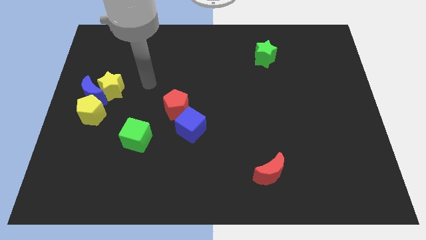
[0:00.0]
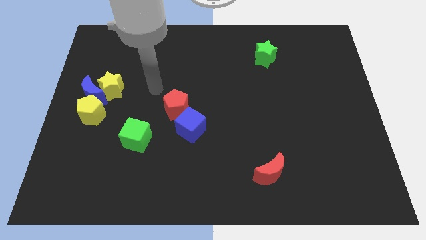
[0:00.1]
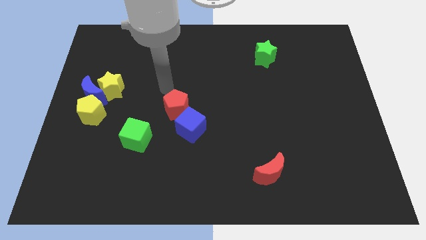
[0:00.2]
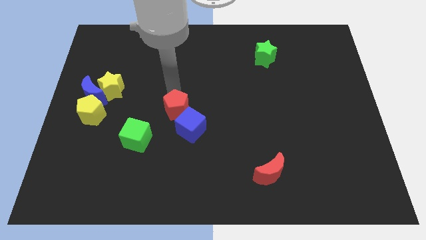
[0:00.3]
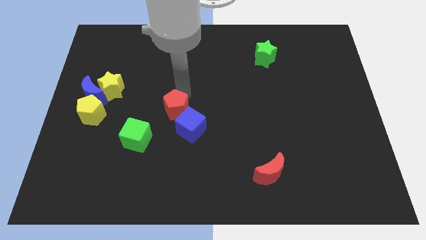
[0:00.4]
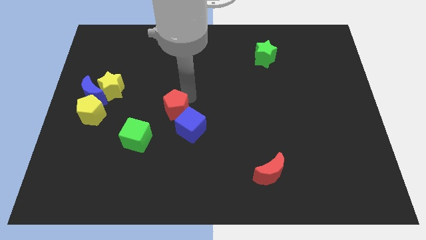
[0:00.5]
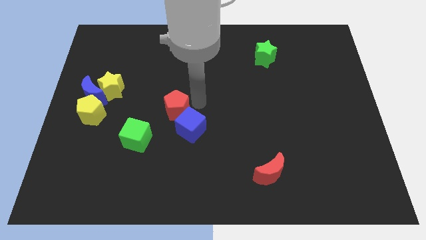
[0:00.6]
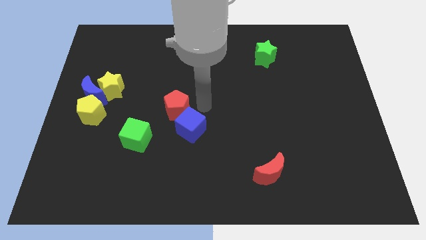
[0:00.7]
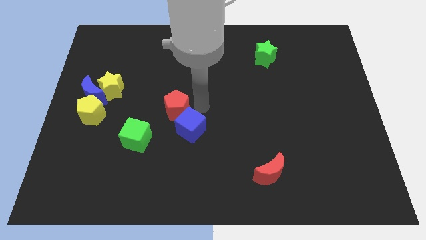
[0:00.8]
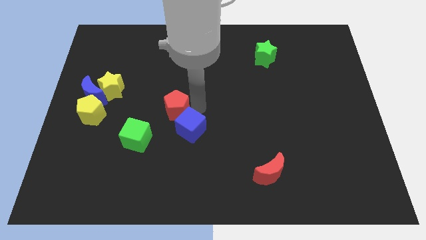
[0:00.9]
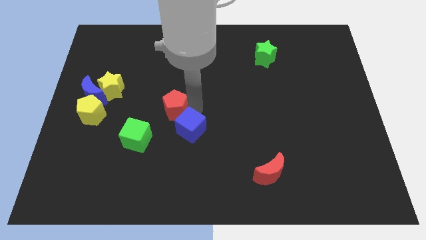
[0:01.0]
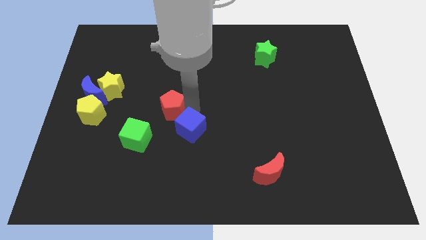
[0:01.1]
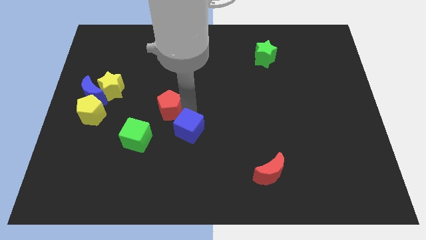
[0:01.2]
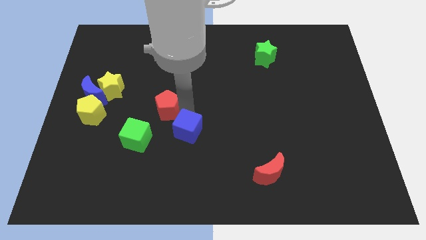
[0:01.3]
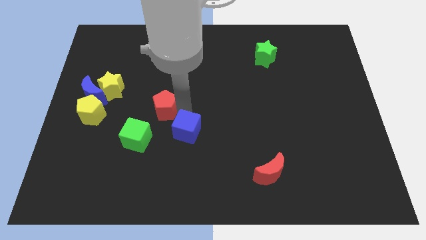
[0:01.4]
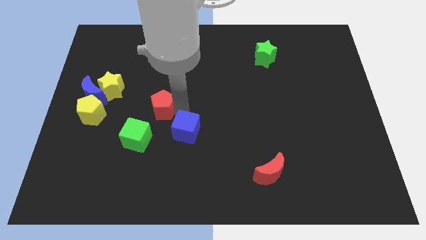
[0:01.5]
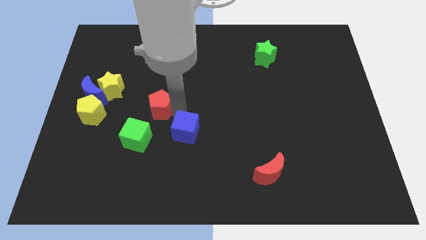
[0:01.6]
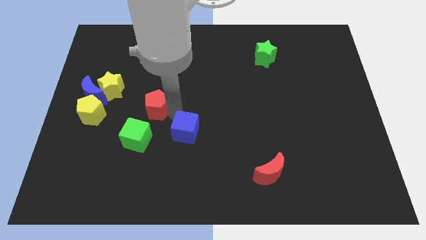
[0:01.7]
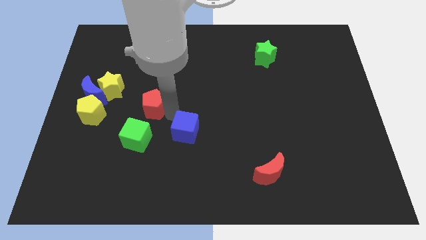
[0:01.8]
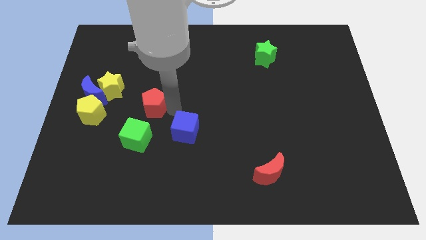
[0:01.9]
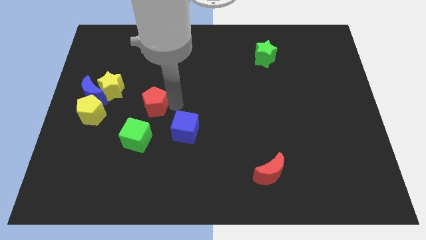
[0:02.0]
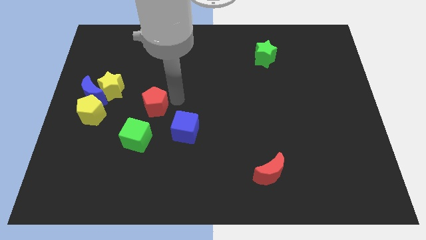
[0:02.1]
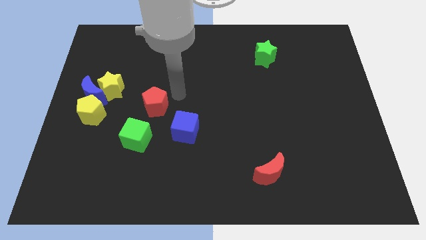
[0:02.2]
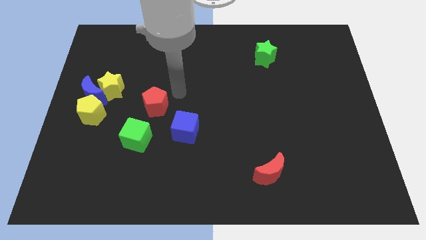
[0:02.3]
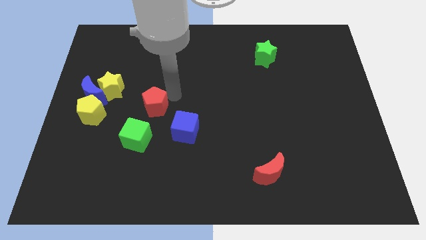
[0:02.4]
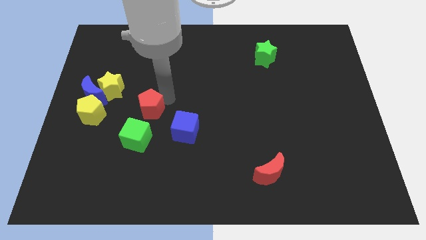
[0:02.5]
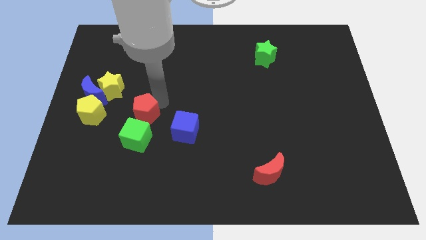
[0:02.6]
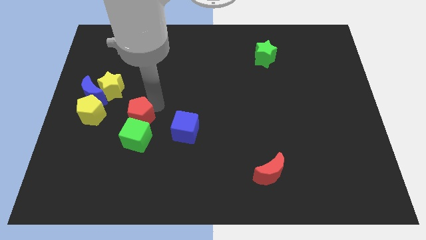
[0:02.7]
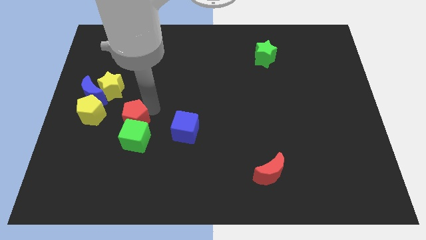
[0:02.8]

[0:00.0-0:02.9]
slightly slide the red pentagon down and to the left

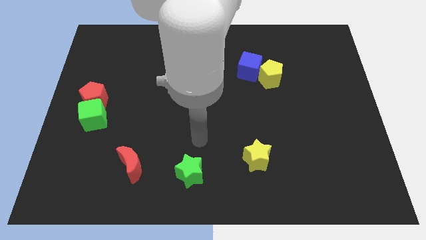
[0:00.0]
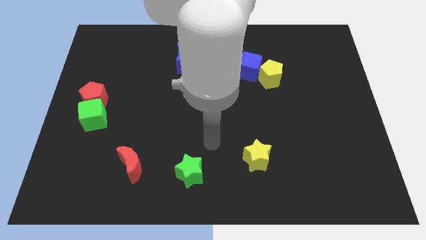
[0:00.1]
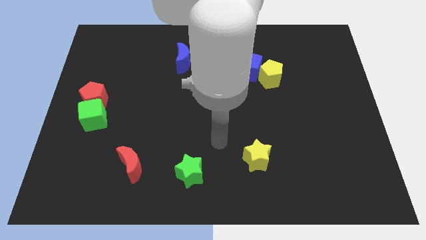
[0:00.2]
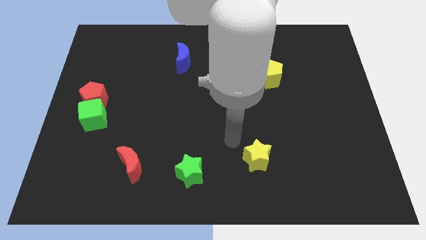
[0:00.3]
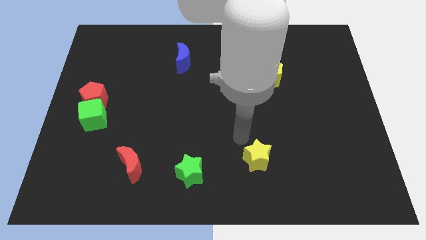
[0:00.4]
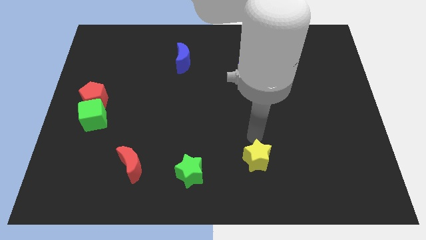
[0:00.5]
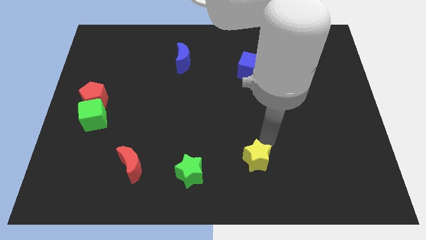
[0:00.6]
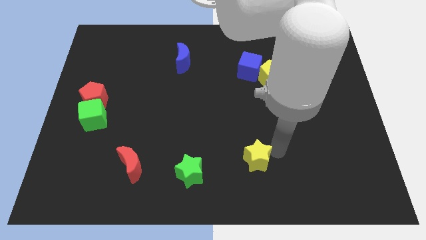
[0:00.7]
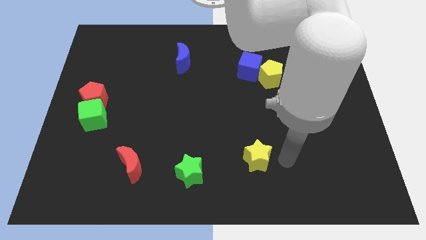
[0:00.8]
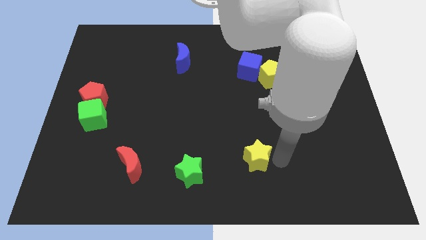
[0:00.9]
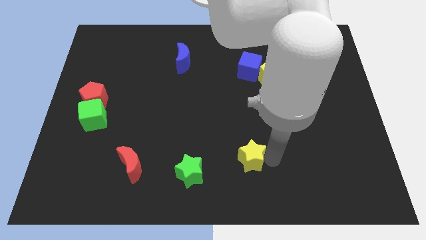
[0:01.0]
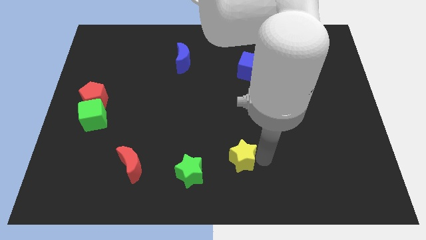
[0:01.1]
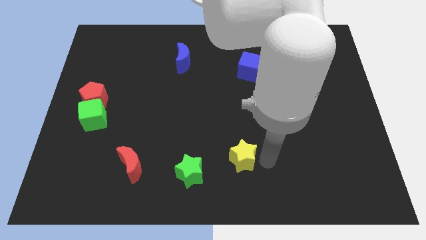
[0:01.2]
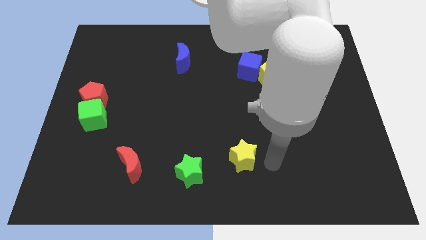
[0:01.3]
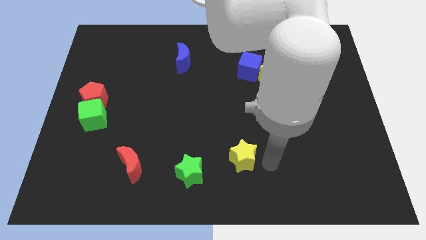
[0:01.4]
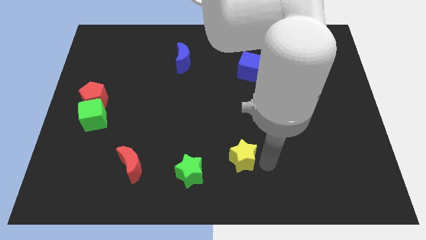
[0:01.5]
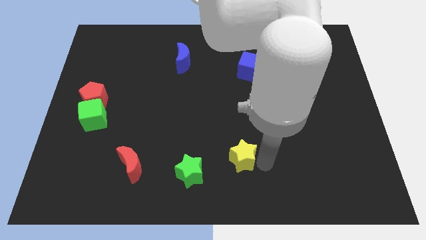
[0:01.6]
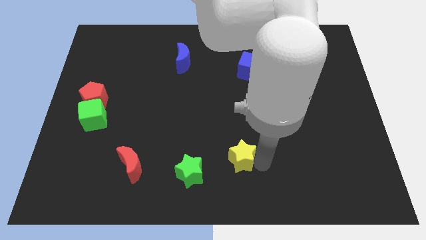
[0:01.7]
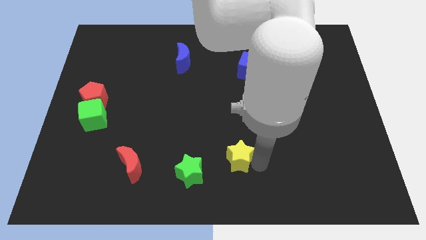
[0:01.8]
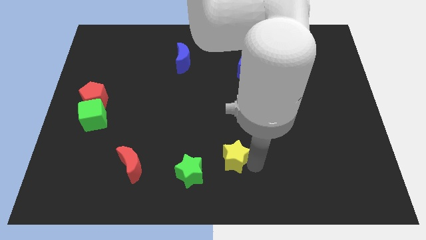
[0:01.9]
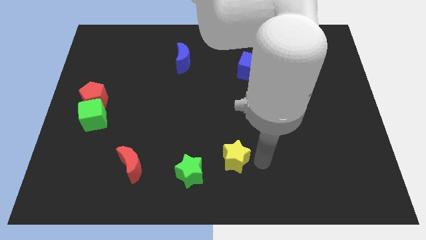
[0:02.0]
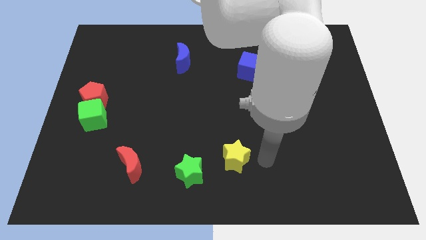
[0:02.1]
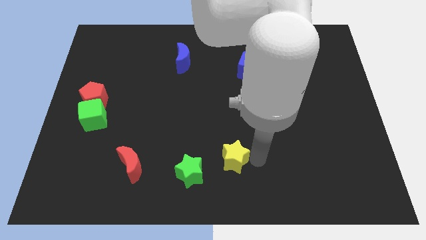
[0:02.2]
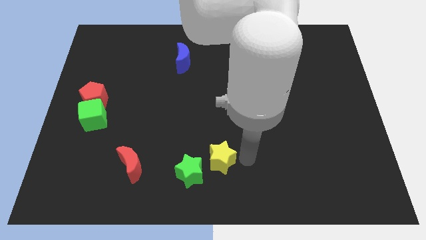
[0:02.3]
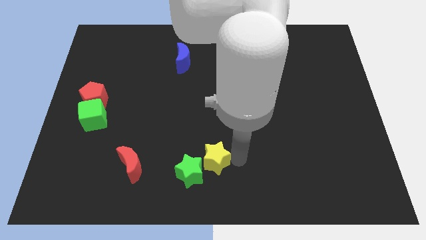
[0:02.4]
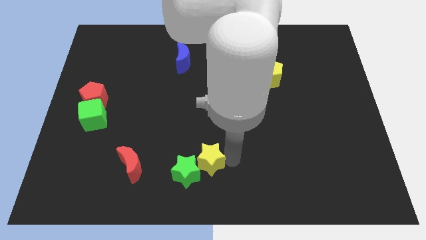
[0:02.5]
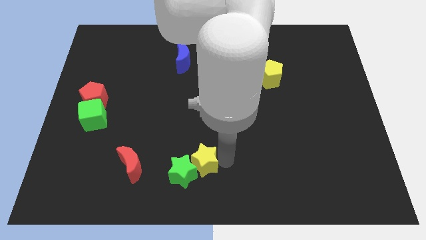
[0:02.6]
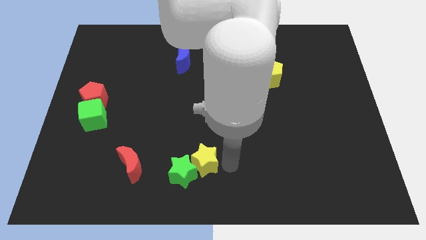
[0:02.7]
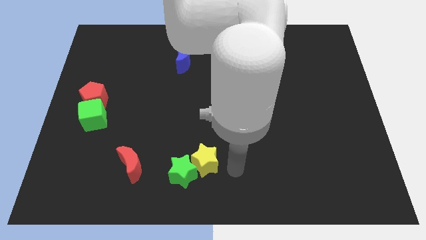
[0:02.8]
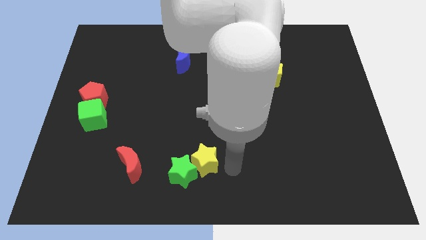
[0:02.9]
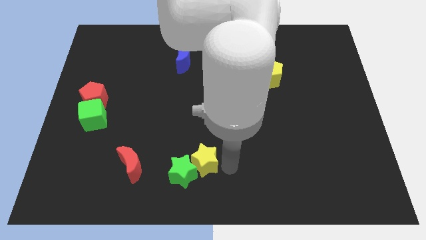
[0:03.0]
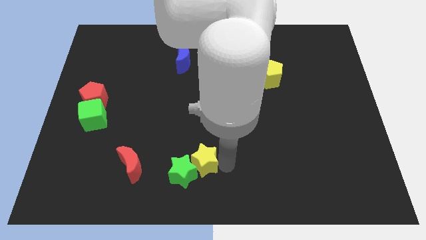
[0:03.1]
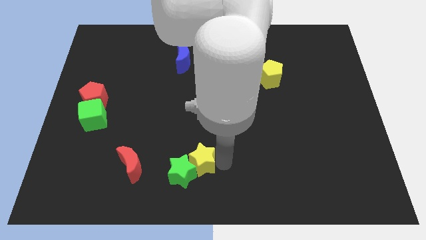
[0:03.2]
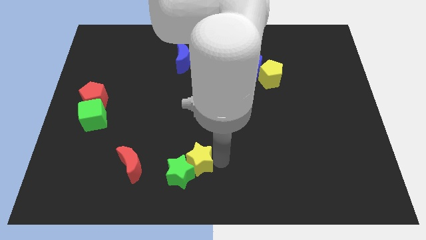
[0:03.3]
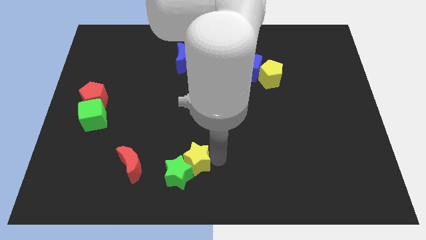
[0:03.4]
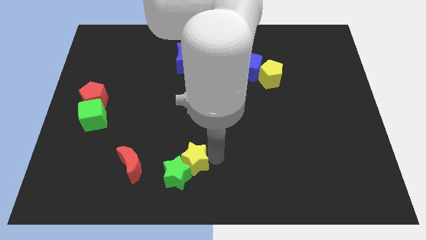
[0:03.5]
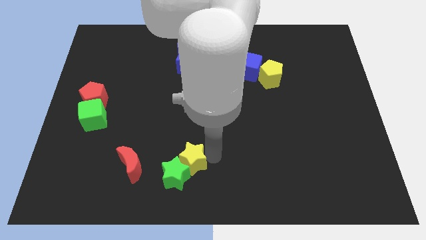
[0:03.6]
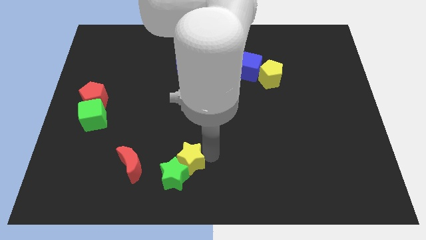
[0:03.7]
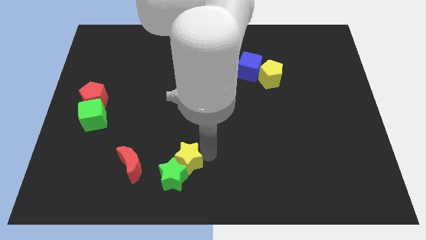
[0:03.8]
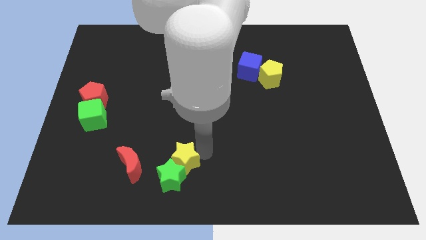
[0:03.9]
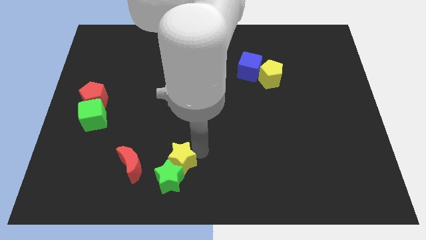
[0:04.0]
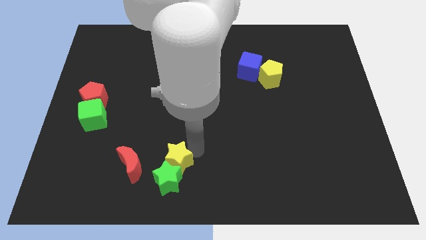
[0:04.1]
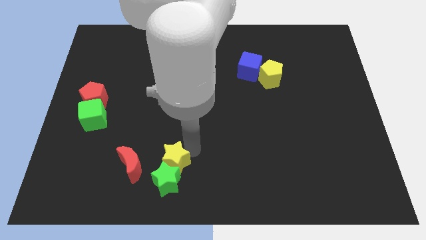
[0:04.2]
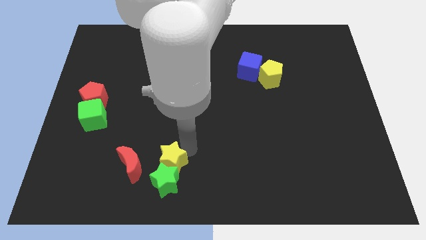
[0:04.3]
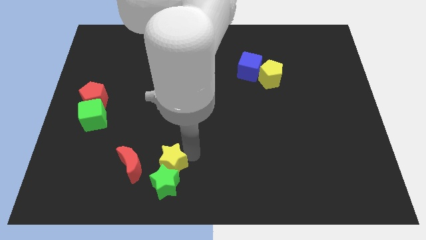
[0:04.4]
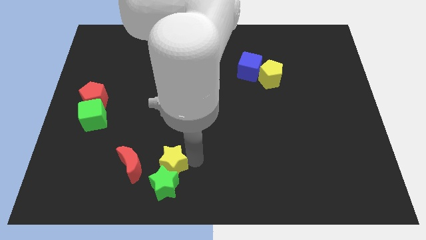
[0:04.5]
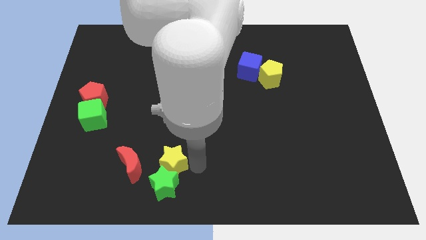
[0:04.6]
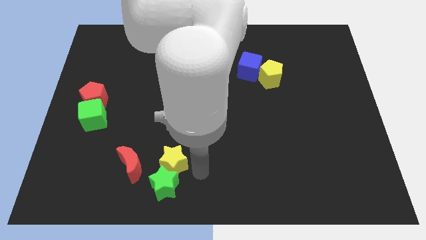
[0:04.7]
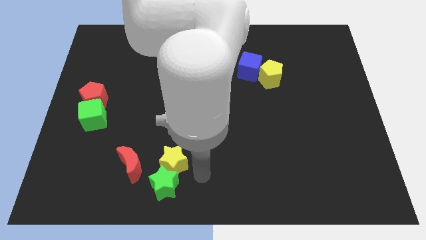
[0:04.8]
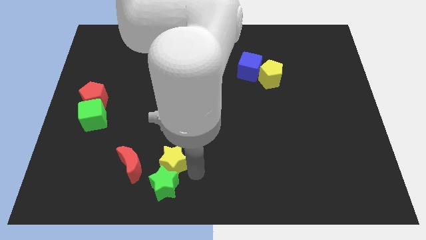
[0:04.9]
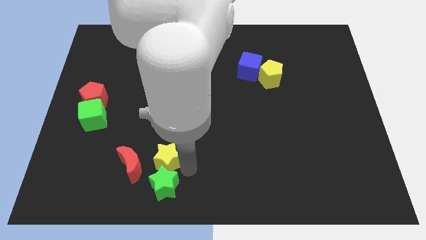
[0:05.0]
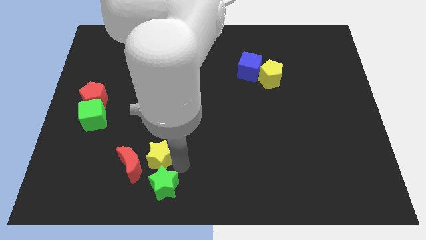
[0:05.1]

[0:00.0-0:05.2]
slide the yellow star left
